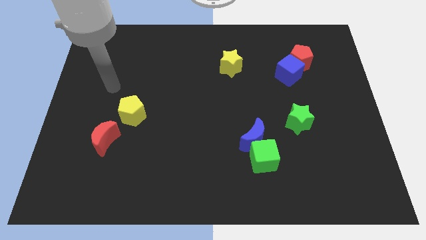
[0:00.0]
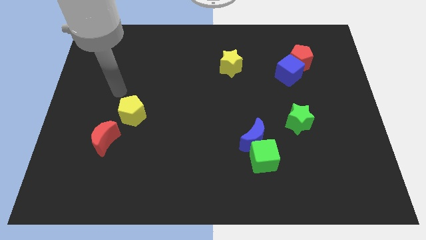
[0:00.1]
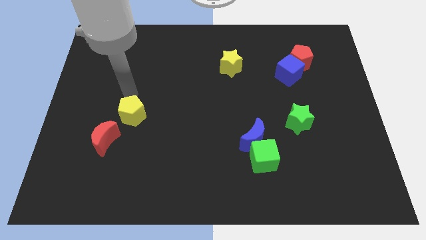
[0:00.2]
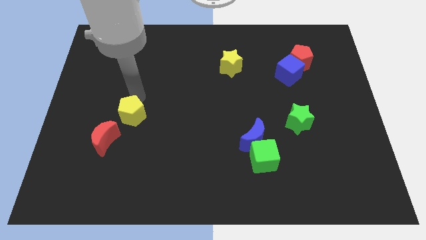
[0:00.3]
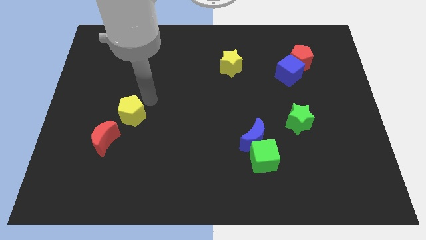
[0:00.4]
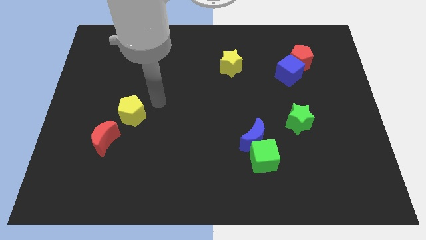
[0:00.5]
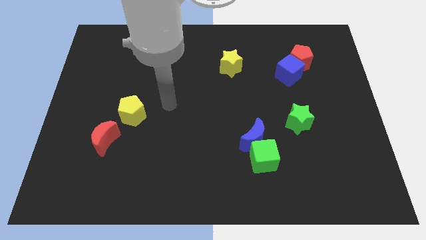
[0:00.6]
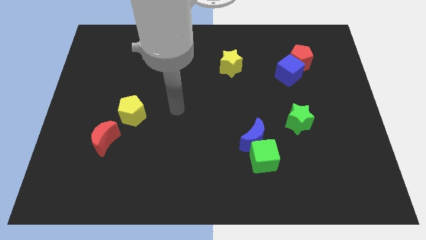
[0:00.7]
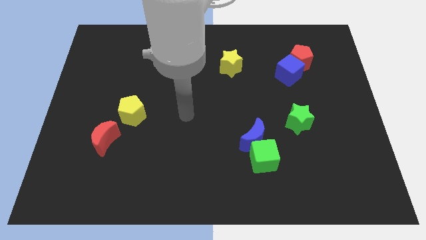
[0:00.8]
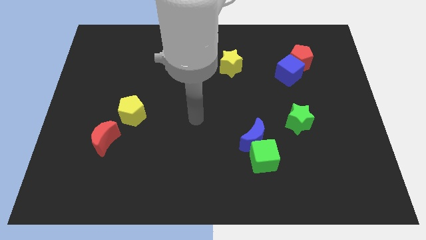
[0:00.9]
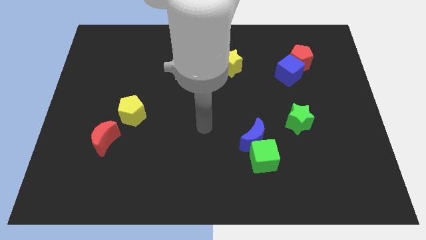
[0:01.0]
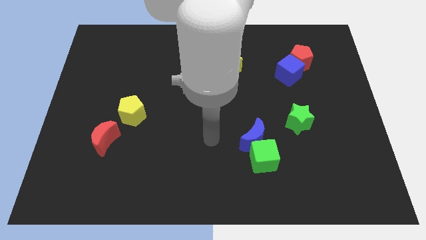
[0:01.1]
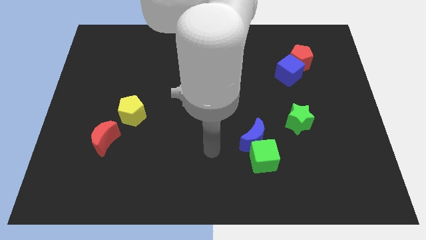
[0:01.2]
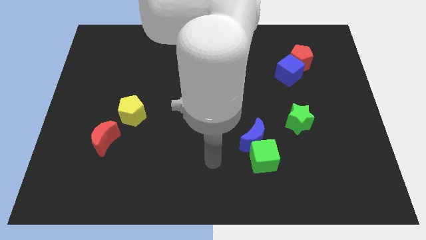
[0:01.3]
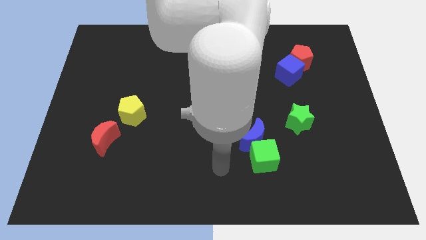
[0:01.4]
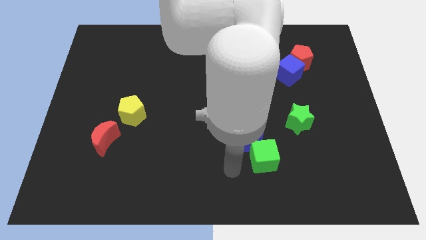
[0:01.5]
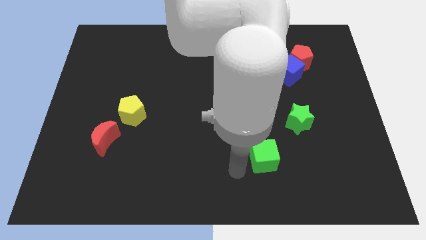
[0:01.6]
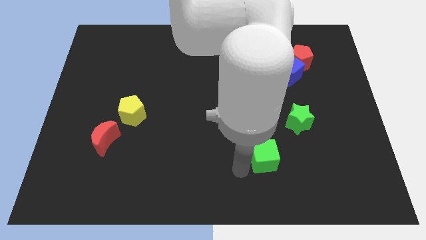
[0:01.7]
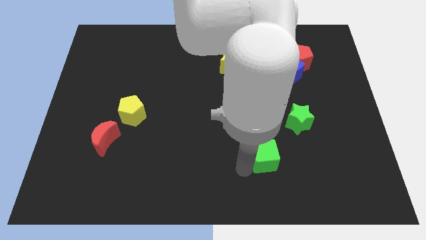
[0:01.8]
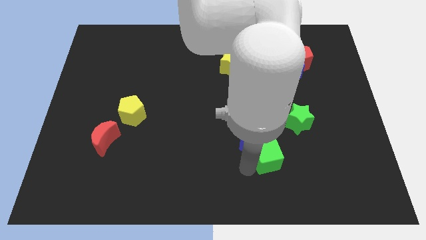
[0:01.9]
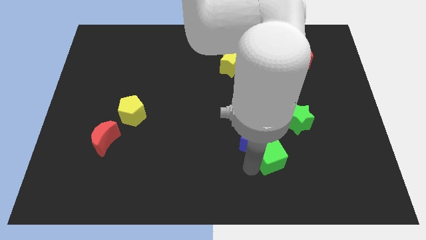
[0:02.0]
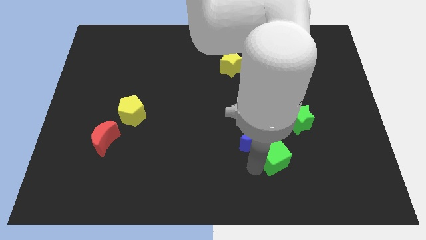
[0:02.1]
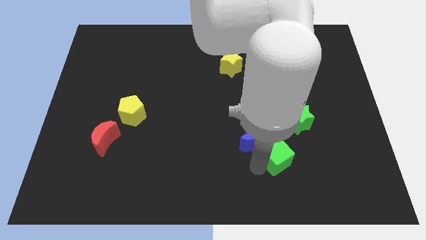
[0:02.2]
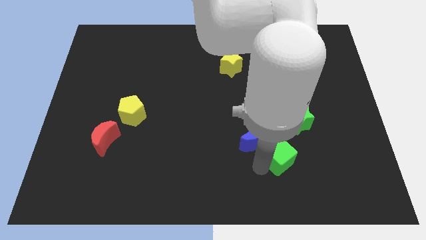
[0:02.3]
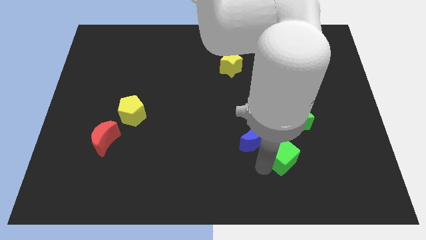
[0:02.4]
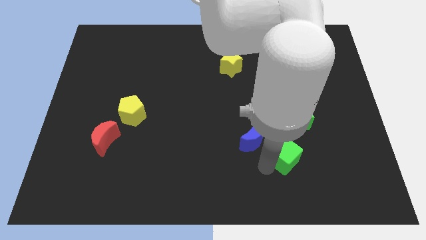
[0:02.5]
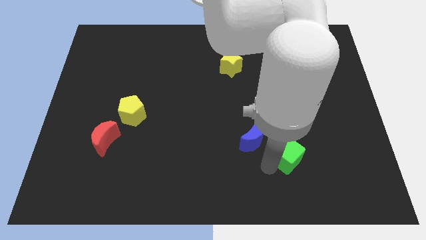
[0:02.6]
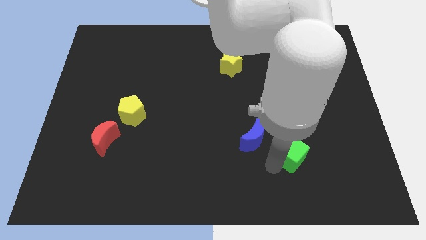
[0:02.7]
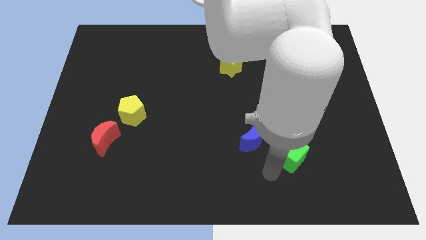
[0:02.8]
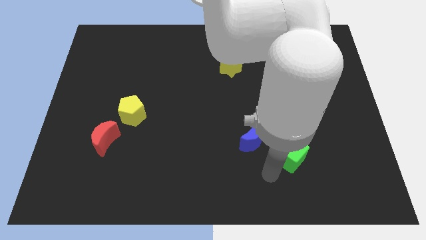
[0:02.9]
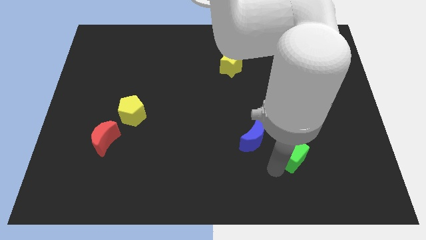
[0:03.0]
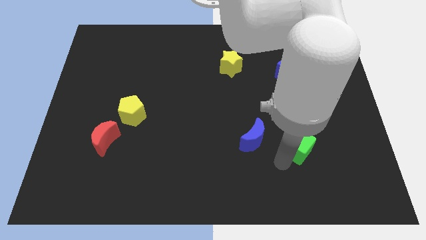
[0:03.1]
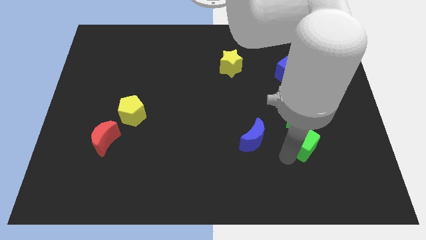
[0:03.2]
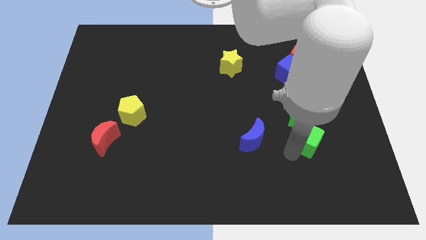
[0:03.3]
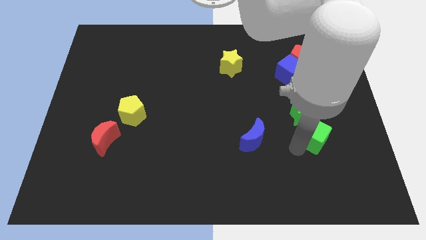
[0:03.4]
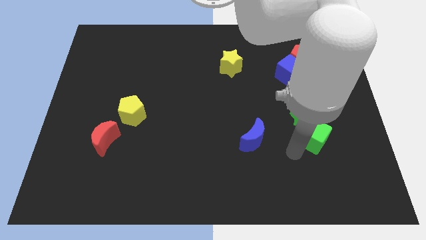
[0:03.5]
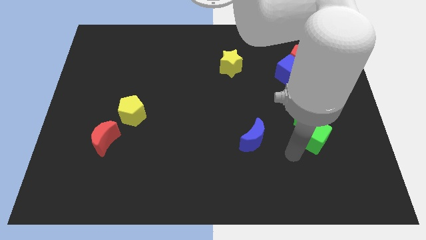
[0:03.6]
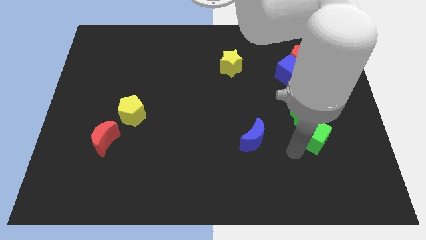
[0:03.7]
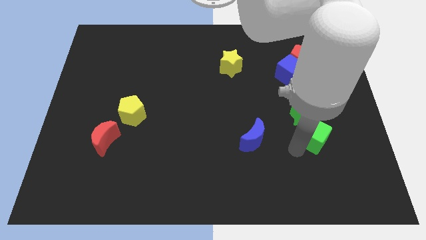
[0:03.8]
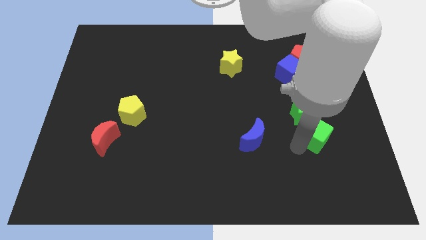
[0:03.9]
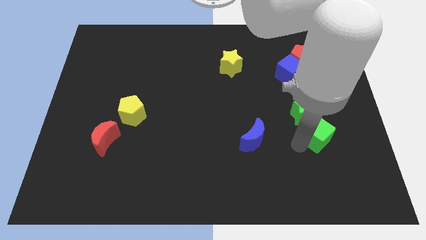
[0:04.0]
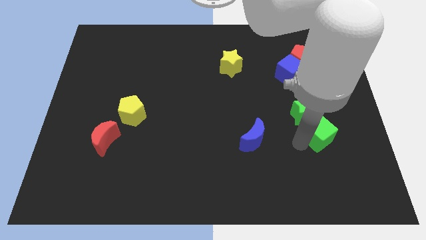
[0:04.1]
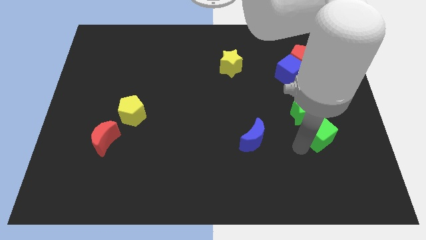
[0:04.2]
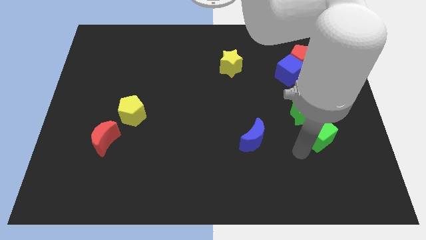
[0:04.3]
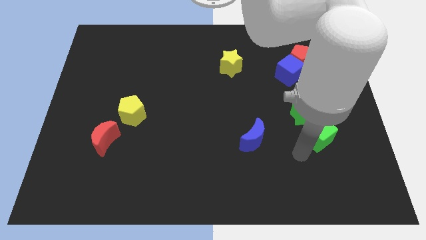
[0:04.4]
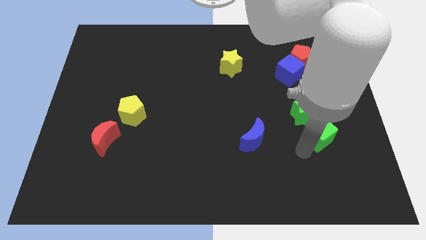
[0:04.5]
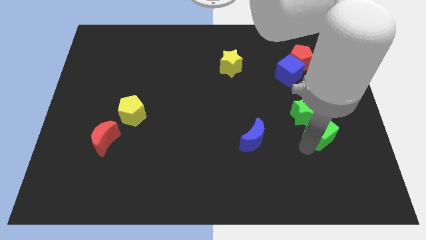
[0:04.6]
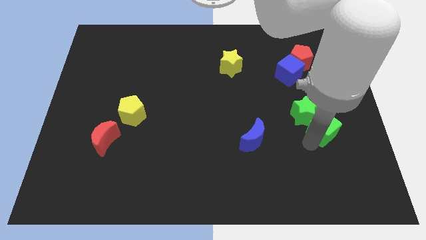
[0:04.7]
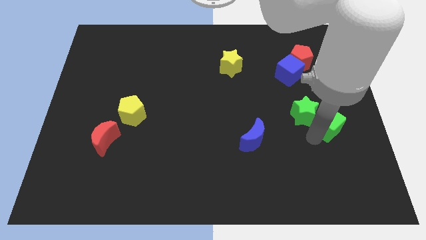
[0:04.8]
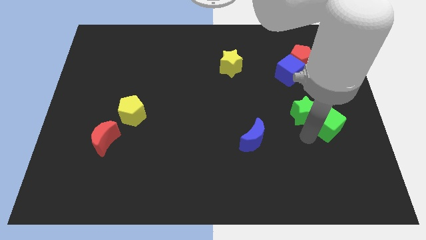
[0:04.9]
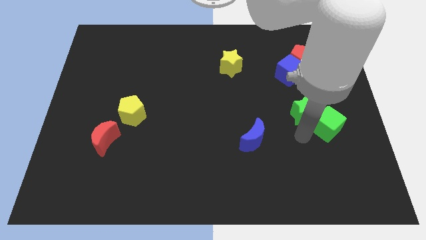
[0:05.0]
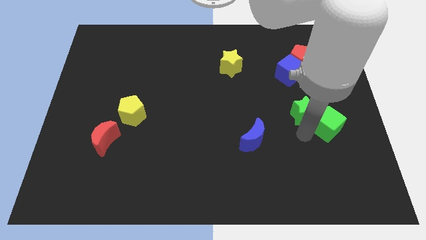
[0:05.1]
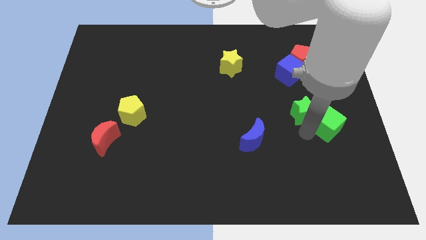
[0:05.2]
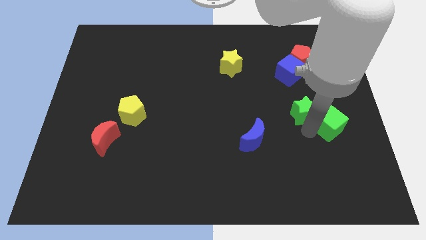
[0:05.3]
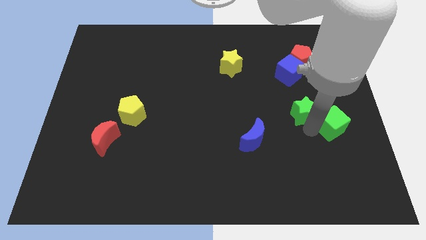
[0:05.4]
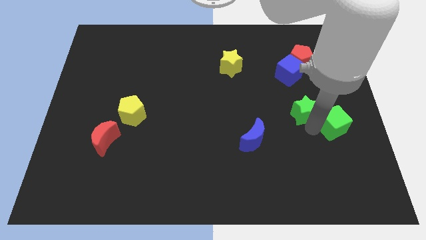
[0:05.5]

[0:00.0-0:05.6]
push the green cube to the right side

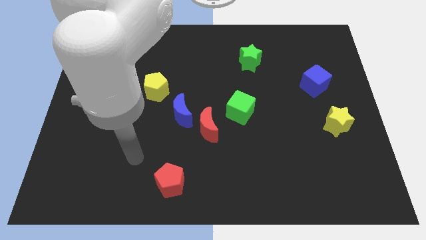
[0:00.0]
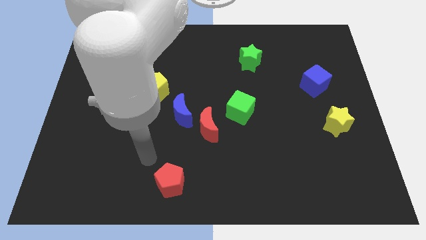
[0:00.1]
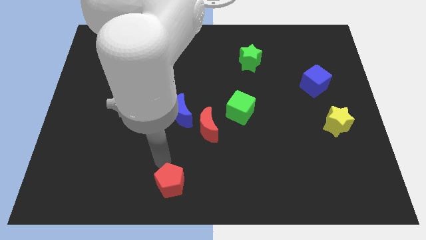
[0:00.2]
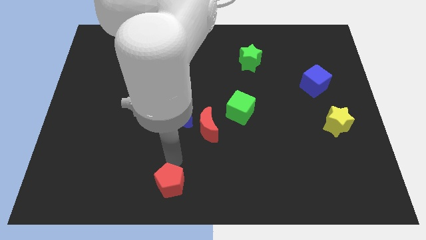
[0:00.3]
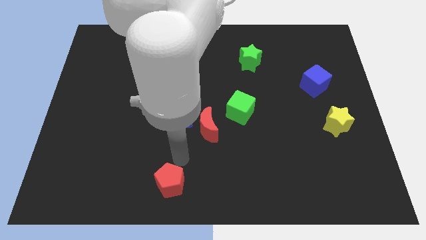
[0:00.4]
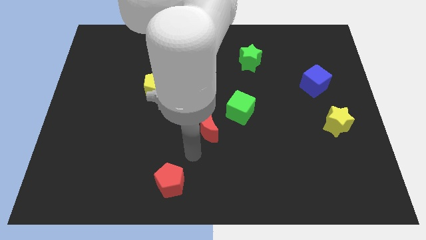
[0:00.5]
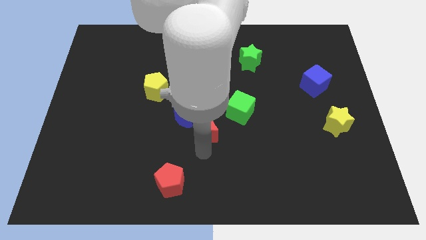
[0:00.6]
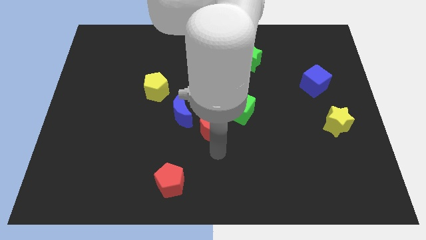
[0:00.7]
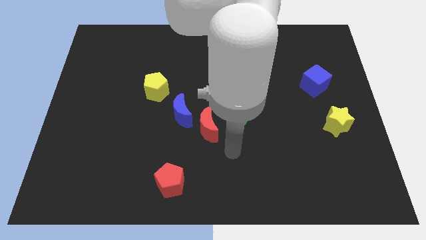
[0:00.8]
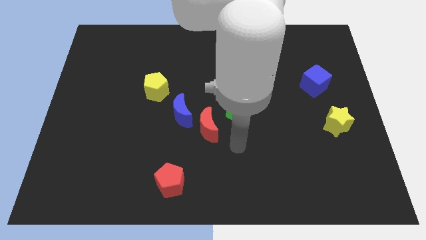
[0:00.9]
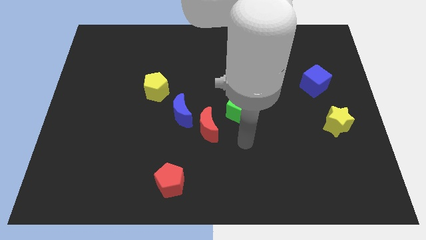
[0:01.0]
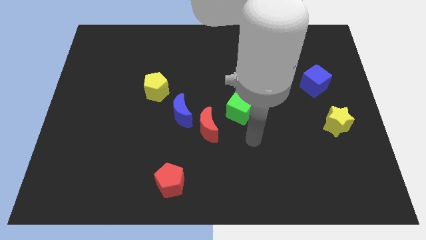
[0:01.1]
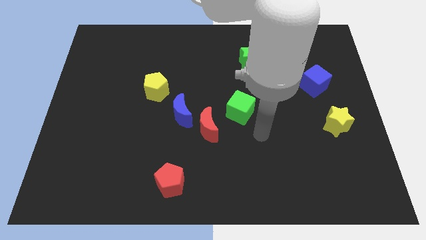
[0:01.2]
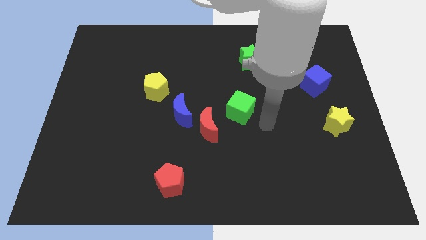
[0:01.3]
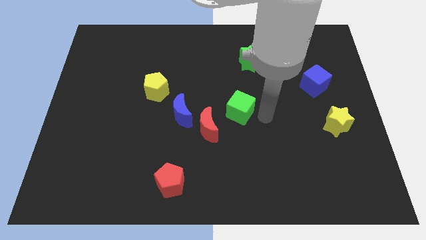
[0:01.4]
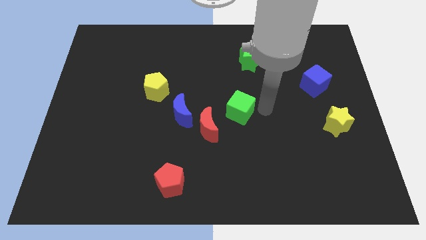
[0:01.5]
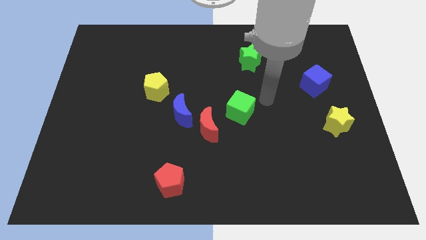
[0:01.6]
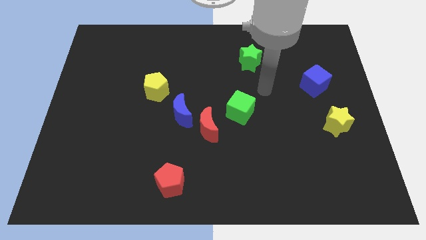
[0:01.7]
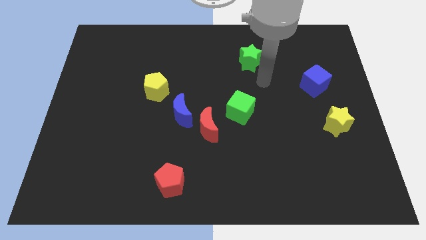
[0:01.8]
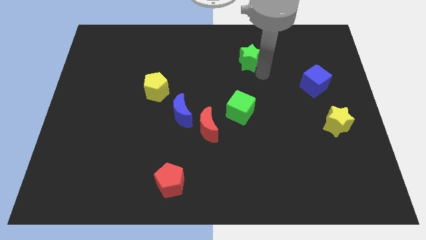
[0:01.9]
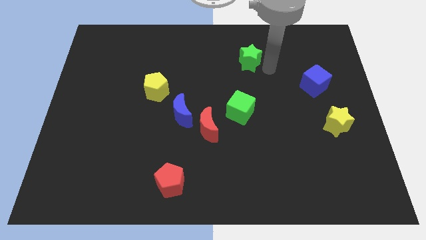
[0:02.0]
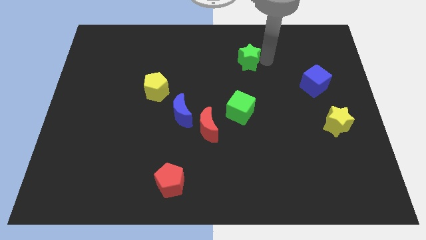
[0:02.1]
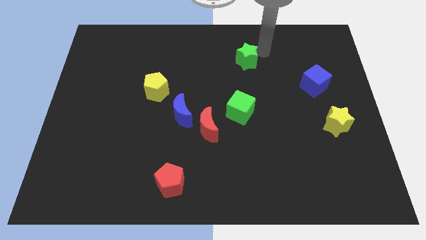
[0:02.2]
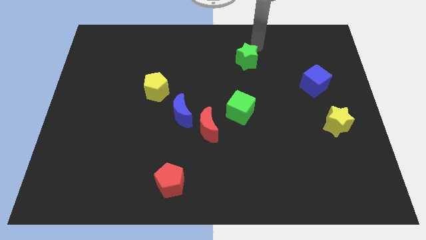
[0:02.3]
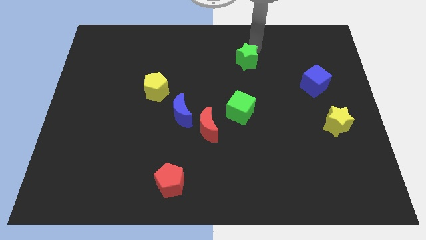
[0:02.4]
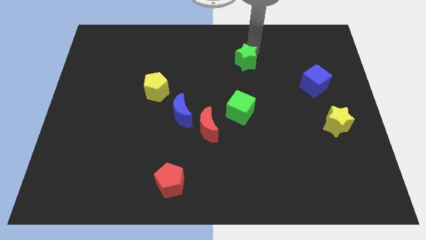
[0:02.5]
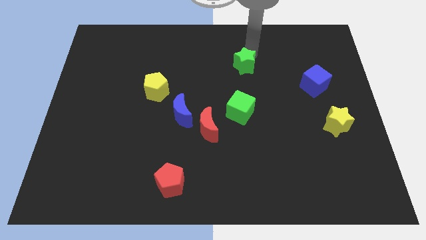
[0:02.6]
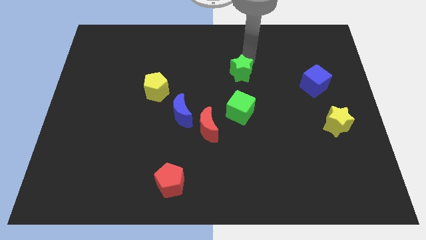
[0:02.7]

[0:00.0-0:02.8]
slide the green star to the middle of the board
